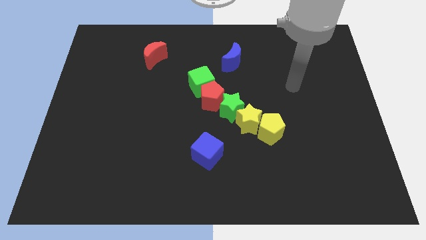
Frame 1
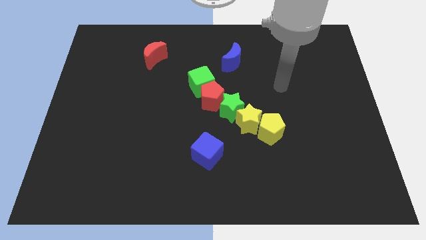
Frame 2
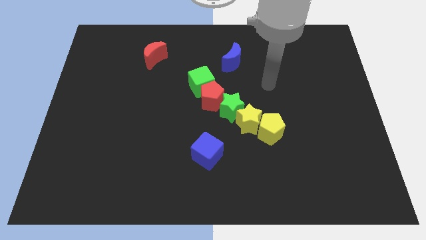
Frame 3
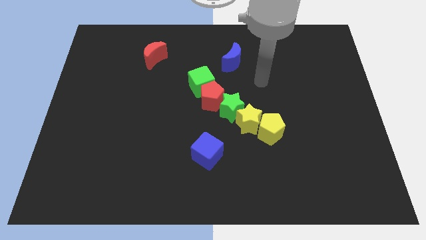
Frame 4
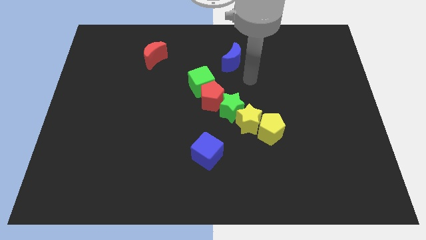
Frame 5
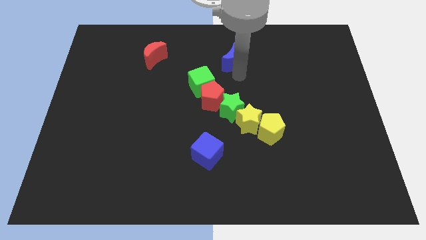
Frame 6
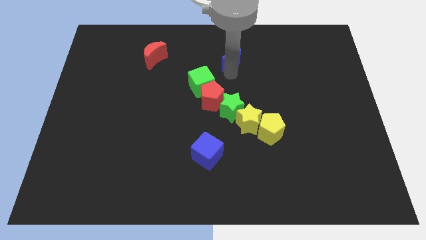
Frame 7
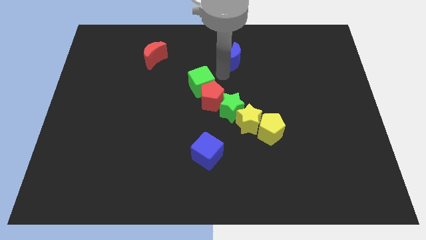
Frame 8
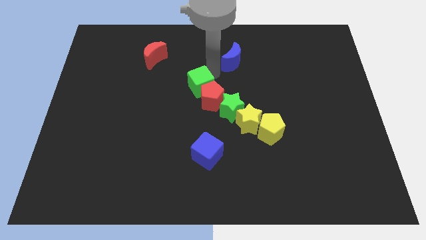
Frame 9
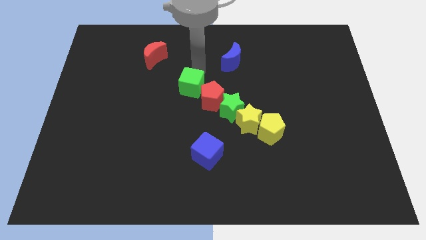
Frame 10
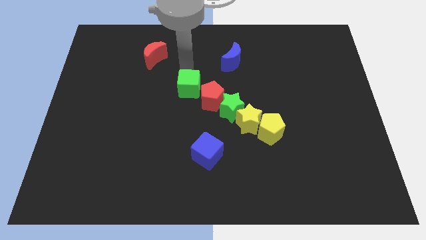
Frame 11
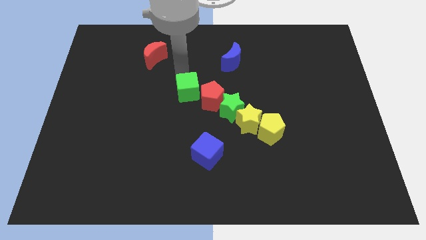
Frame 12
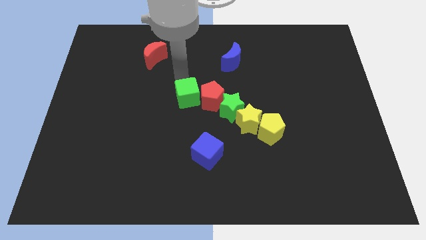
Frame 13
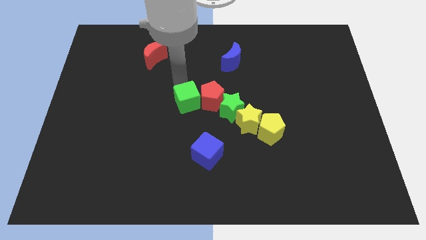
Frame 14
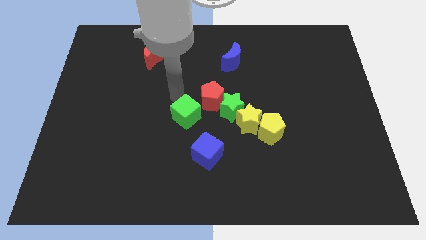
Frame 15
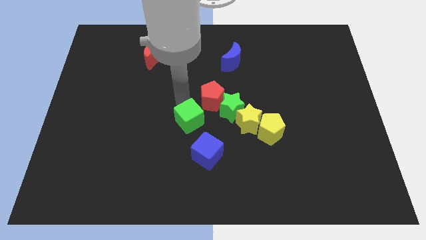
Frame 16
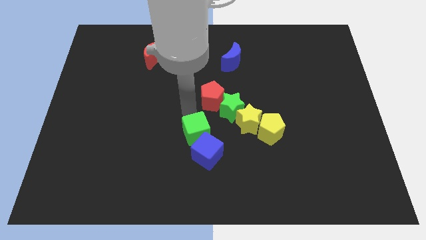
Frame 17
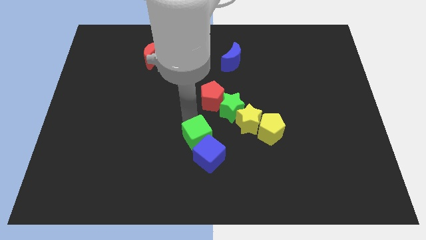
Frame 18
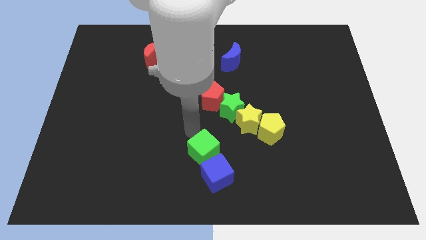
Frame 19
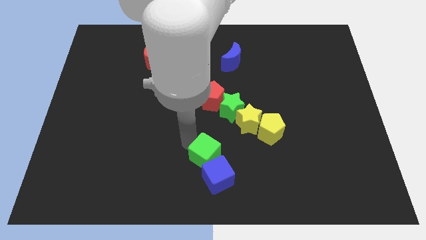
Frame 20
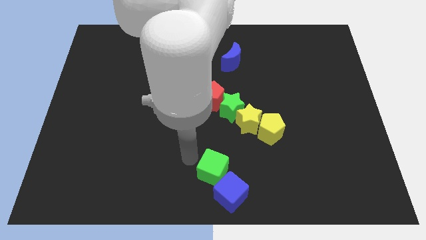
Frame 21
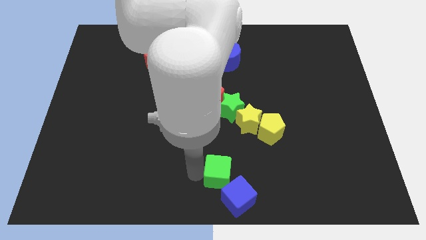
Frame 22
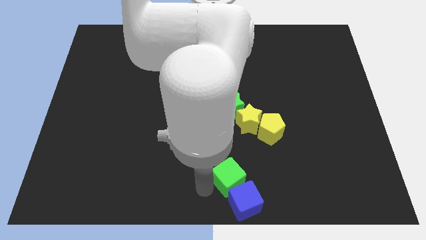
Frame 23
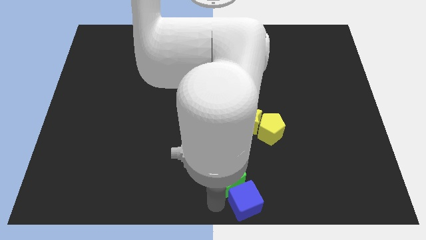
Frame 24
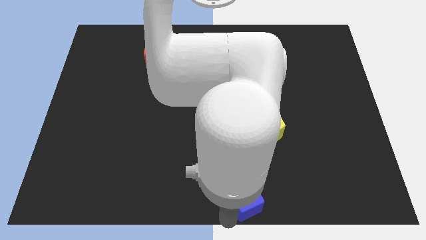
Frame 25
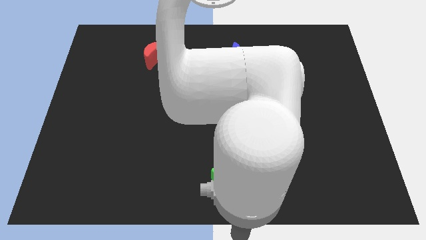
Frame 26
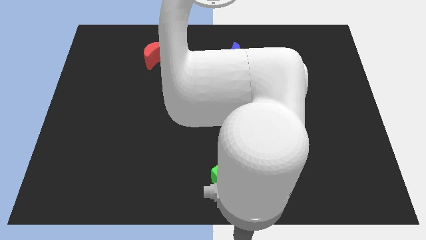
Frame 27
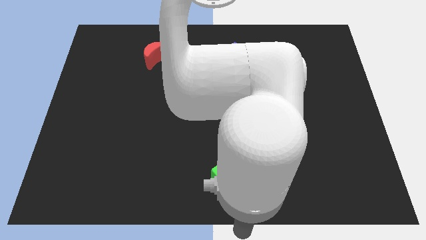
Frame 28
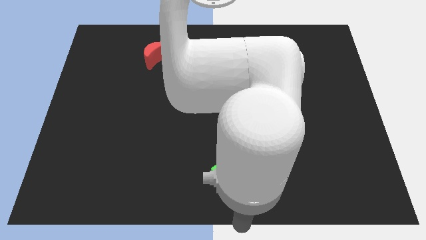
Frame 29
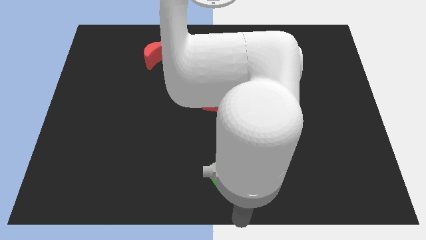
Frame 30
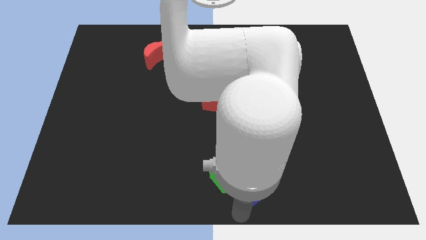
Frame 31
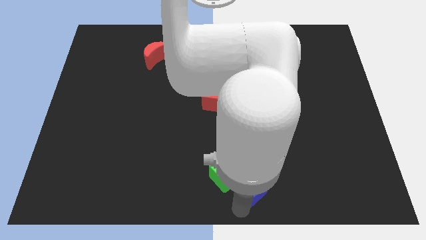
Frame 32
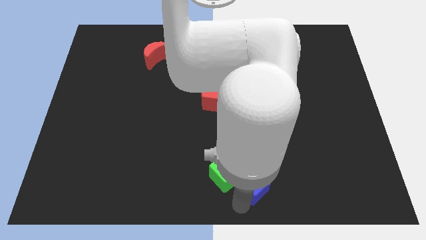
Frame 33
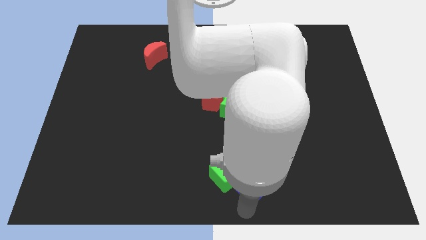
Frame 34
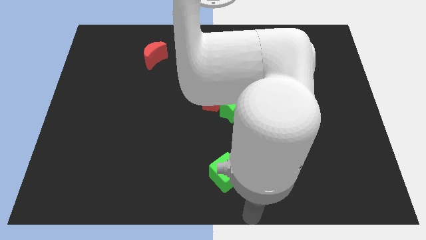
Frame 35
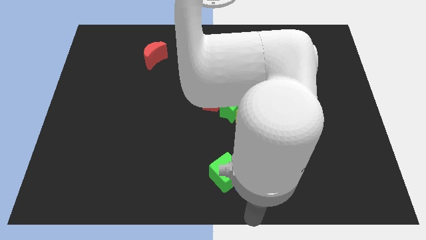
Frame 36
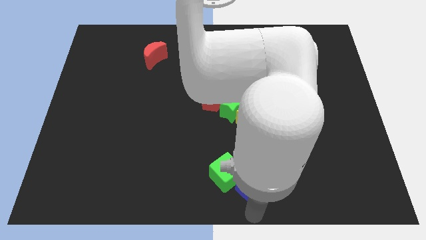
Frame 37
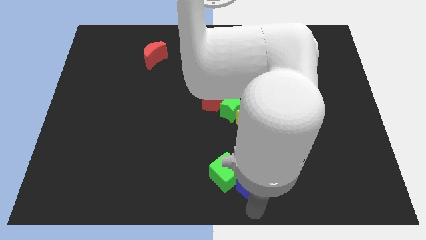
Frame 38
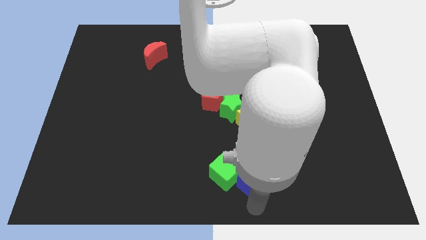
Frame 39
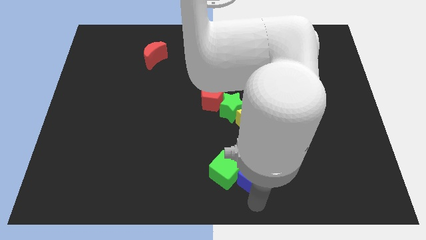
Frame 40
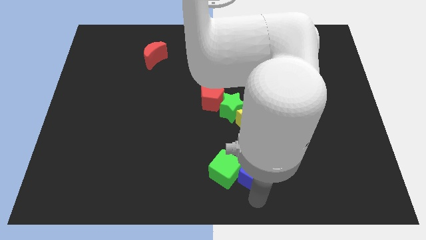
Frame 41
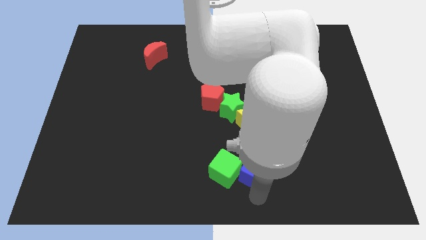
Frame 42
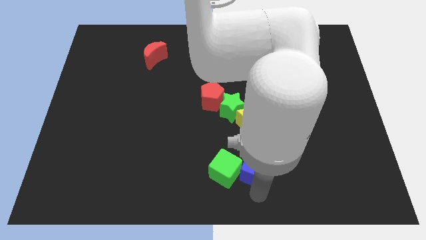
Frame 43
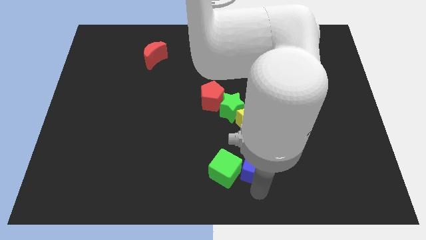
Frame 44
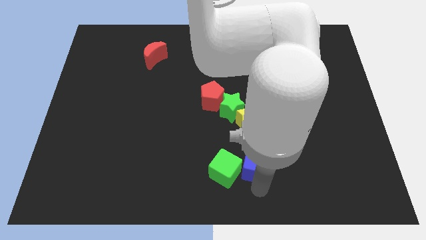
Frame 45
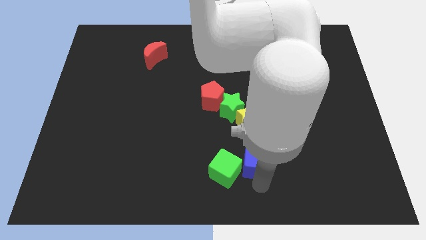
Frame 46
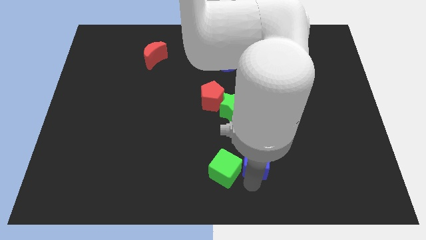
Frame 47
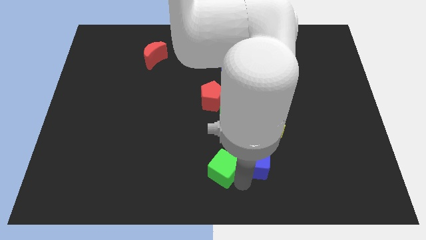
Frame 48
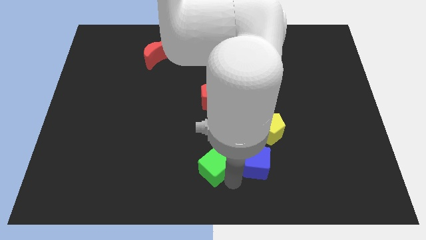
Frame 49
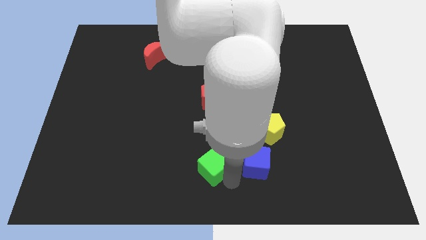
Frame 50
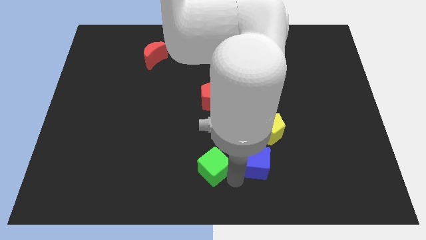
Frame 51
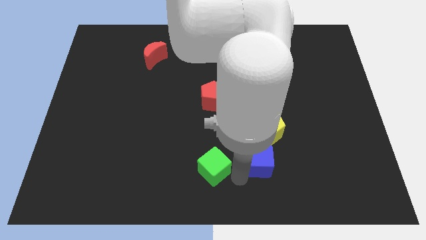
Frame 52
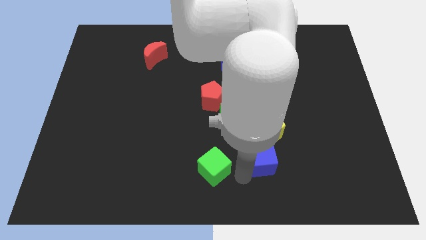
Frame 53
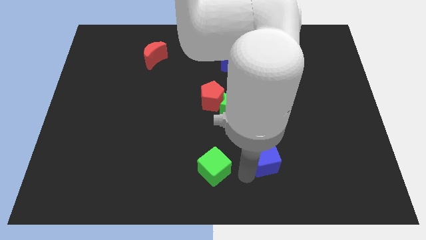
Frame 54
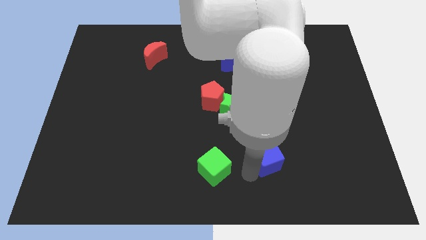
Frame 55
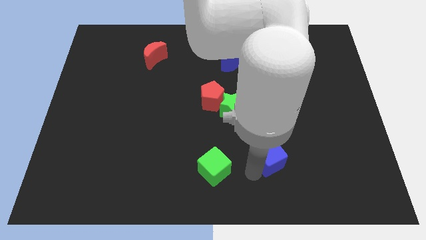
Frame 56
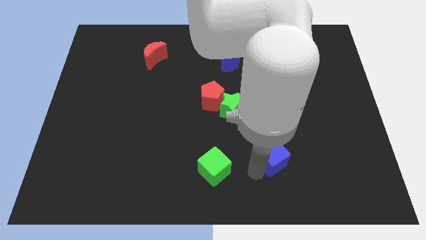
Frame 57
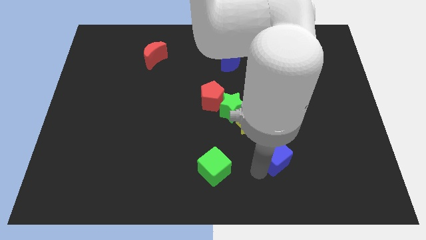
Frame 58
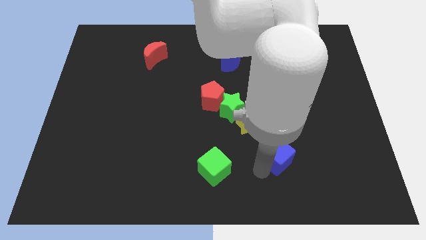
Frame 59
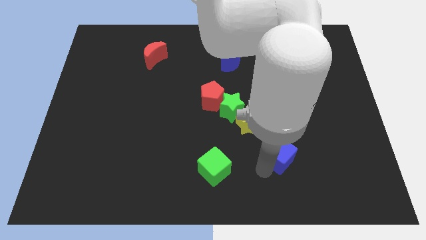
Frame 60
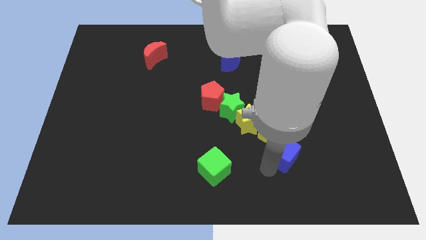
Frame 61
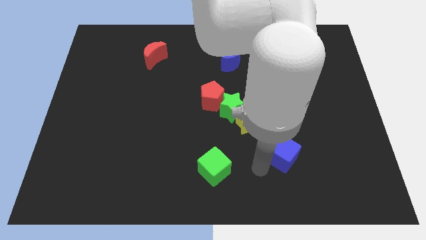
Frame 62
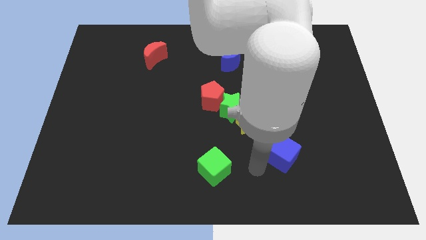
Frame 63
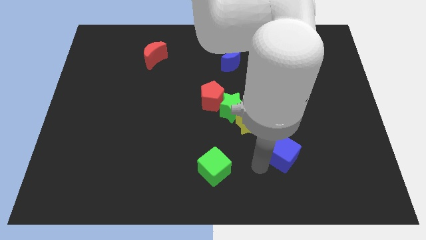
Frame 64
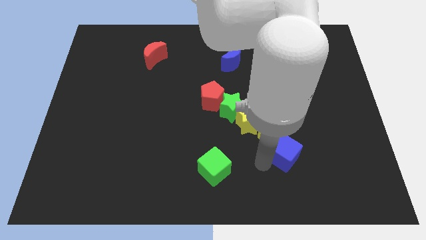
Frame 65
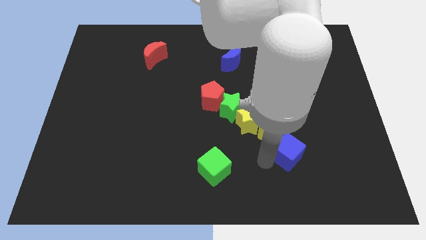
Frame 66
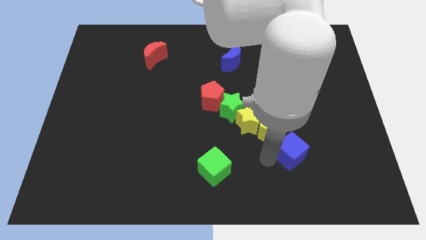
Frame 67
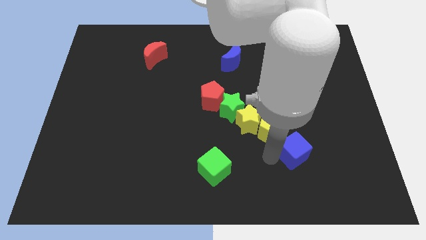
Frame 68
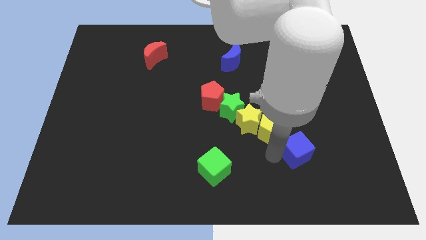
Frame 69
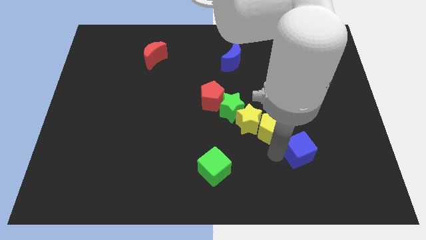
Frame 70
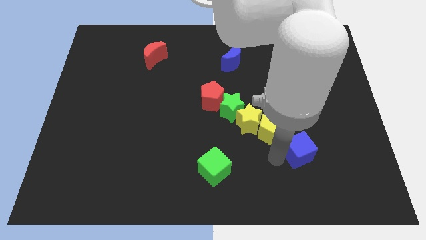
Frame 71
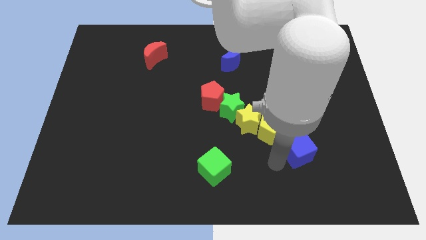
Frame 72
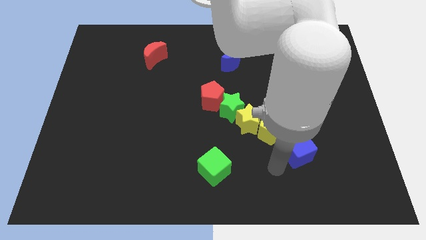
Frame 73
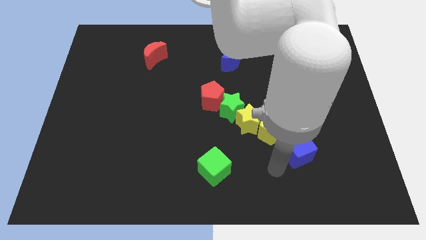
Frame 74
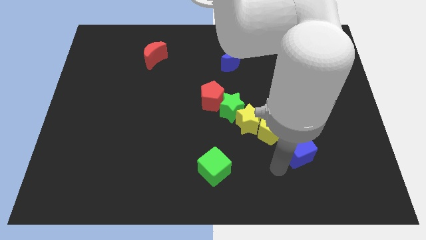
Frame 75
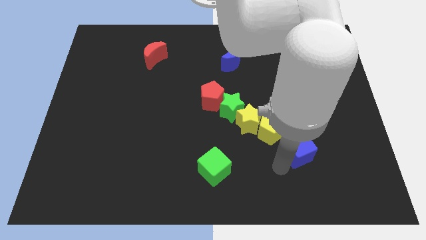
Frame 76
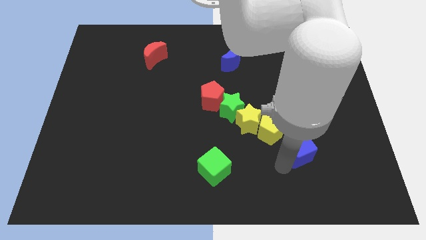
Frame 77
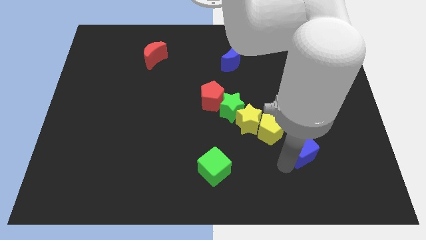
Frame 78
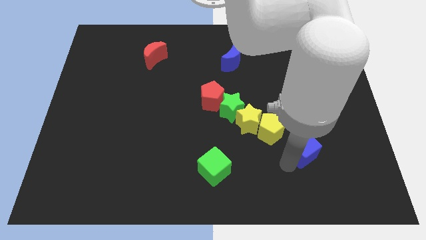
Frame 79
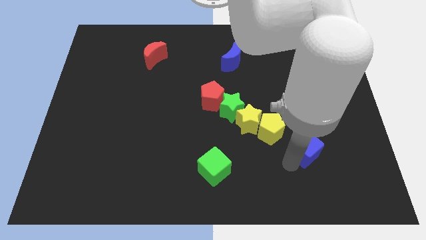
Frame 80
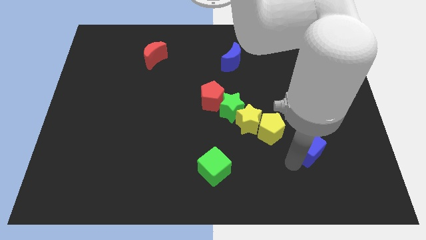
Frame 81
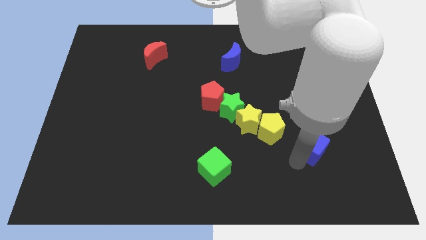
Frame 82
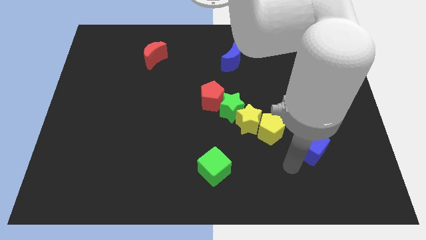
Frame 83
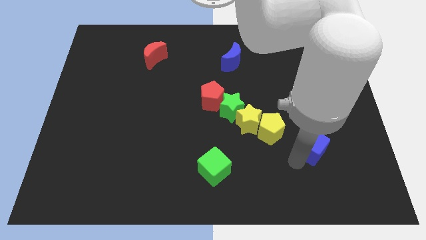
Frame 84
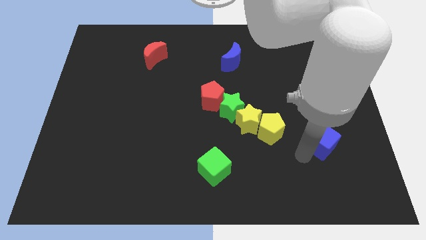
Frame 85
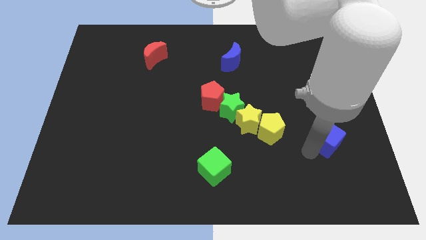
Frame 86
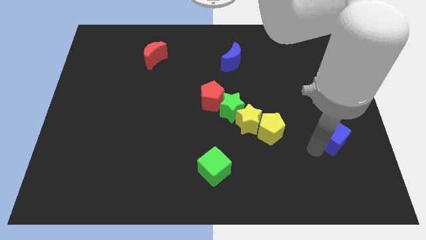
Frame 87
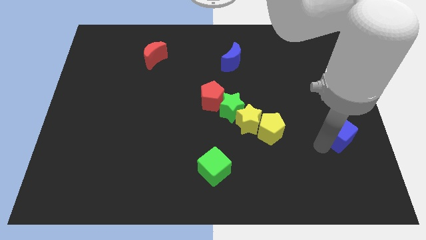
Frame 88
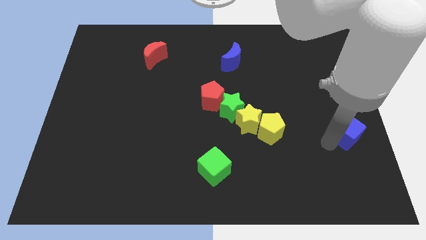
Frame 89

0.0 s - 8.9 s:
put the blue cube to the center right
